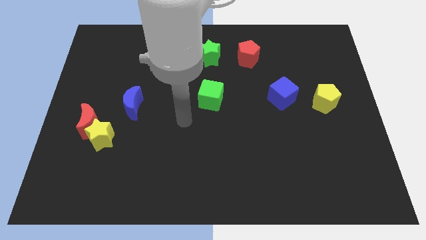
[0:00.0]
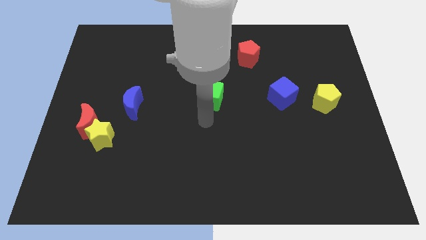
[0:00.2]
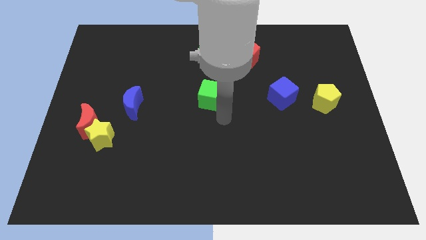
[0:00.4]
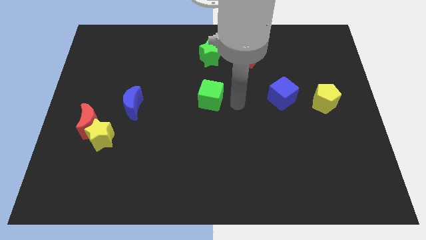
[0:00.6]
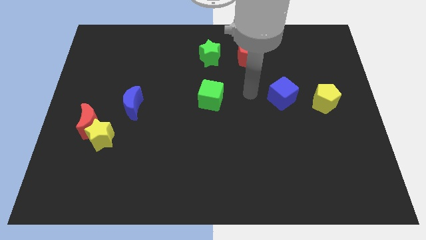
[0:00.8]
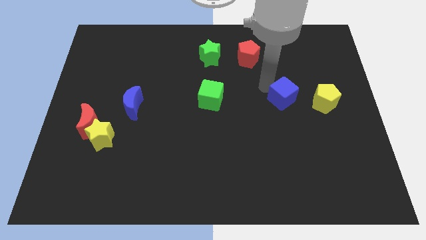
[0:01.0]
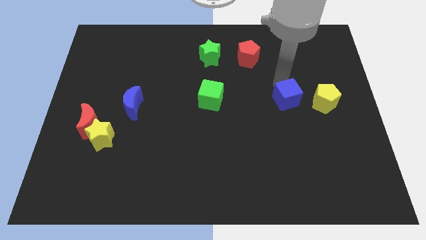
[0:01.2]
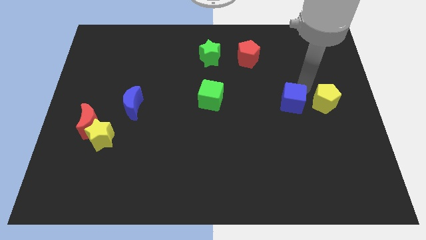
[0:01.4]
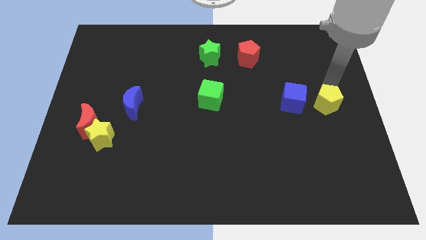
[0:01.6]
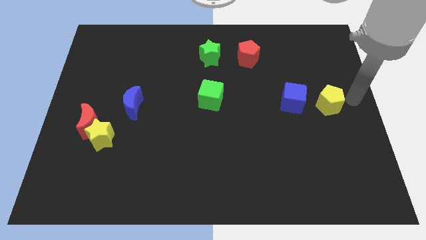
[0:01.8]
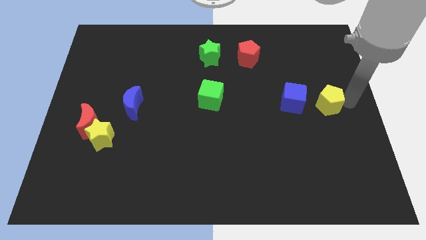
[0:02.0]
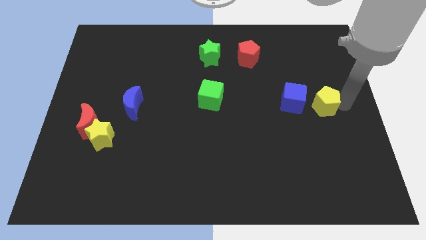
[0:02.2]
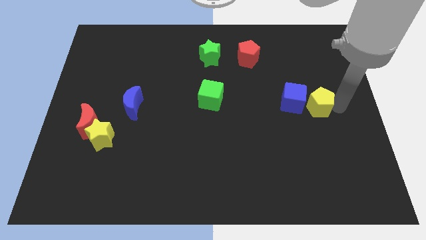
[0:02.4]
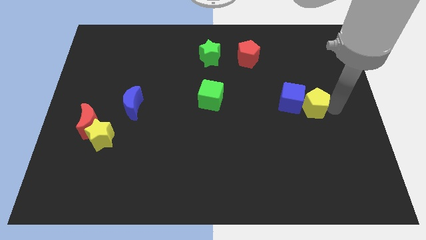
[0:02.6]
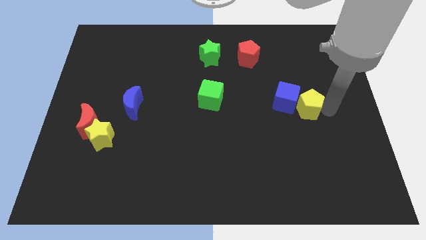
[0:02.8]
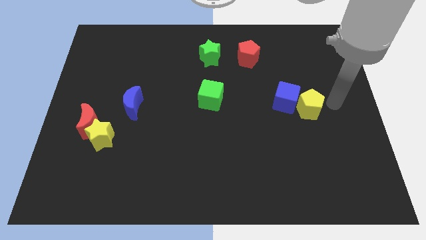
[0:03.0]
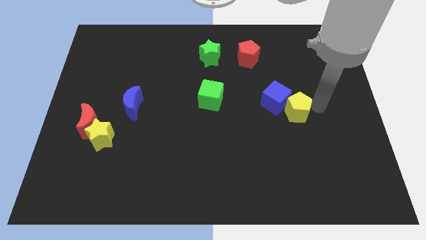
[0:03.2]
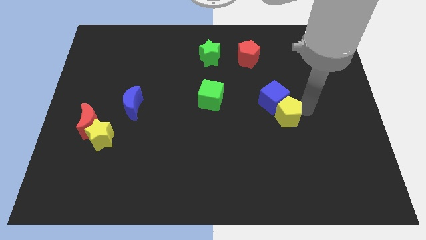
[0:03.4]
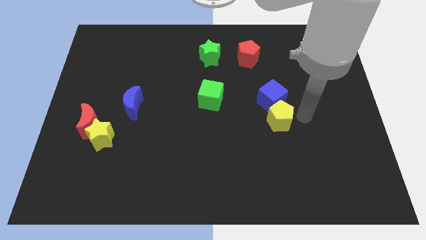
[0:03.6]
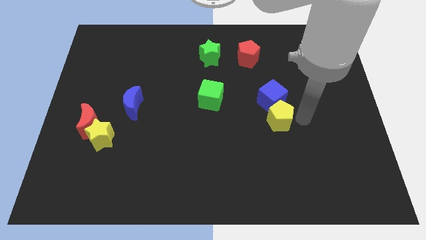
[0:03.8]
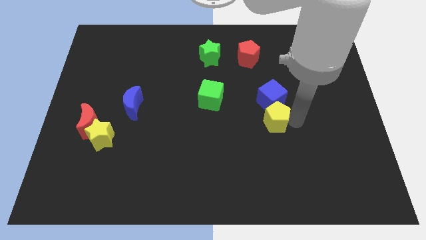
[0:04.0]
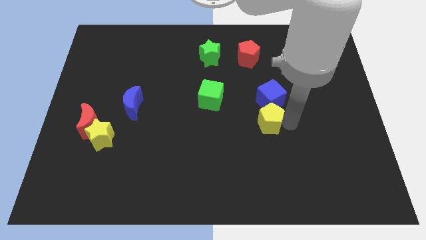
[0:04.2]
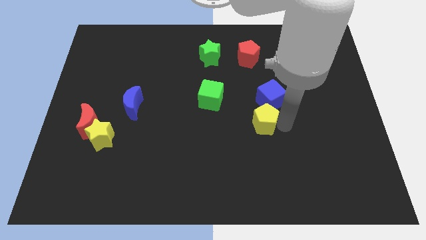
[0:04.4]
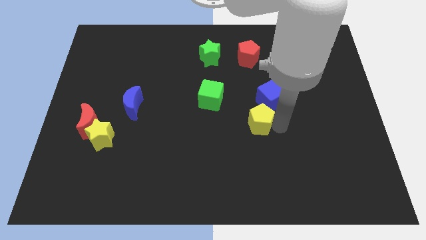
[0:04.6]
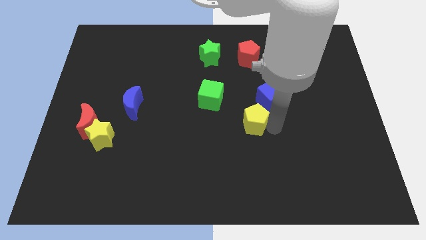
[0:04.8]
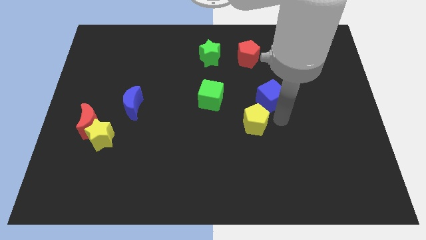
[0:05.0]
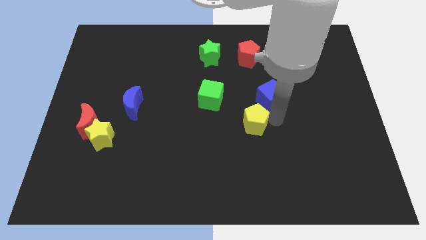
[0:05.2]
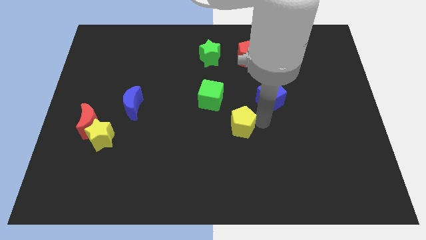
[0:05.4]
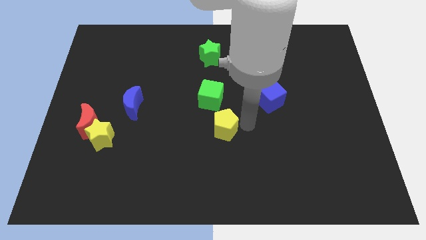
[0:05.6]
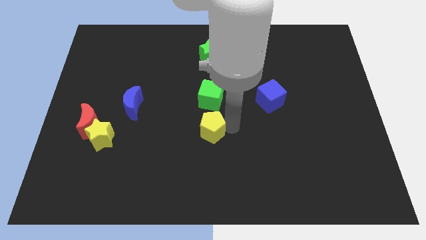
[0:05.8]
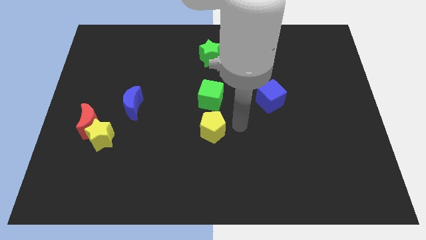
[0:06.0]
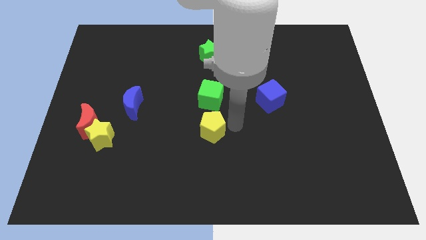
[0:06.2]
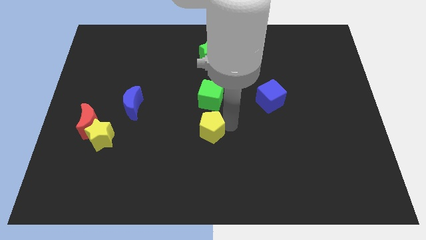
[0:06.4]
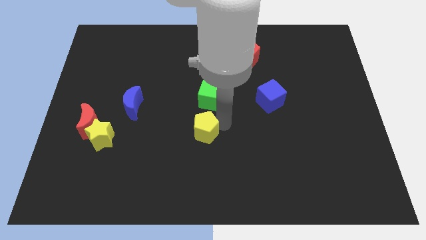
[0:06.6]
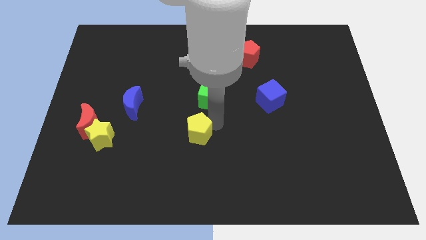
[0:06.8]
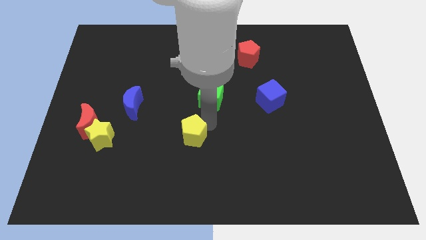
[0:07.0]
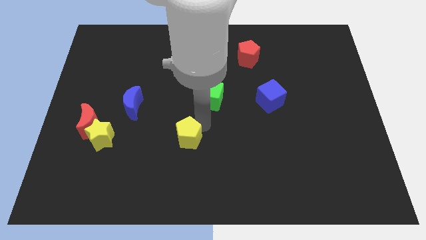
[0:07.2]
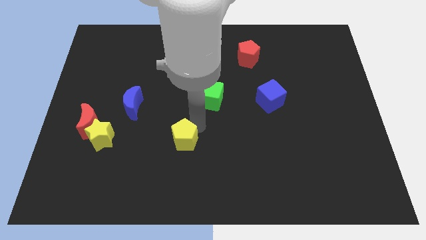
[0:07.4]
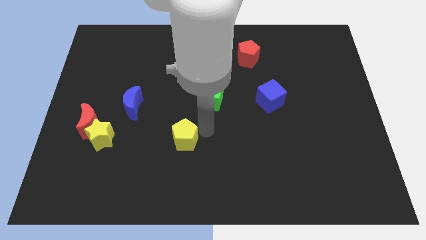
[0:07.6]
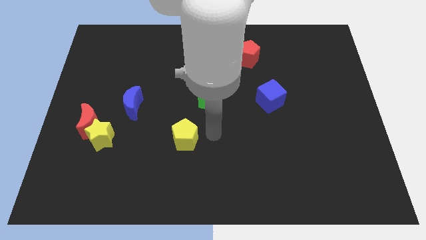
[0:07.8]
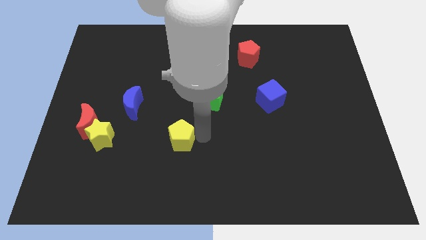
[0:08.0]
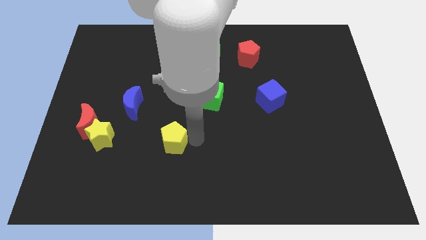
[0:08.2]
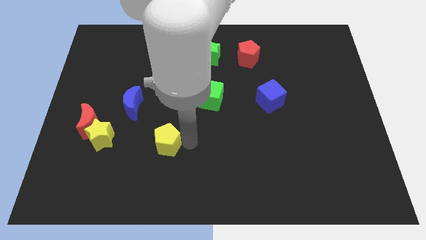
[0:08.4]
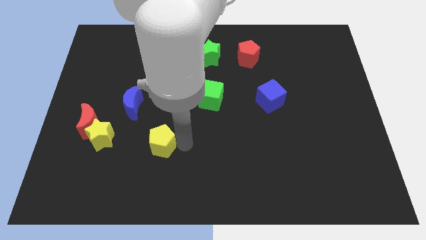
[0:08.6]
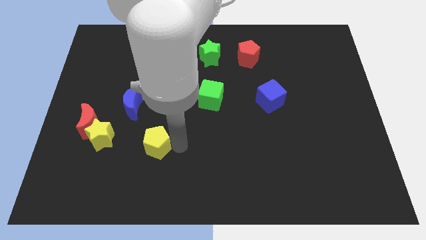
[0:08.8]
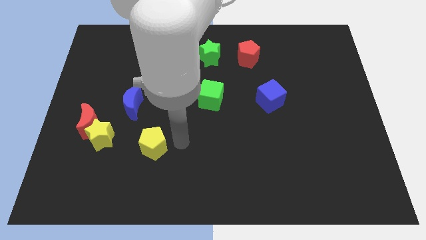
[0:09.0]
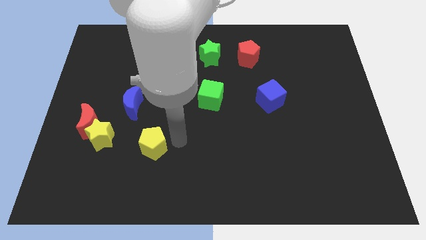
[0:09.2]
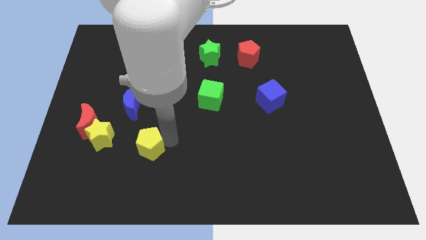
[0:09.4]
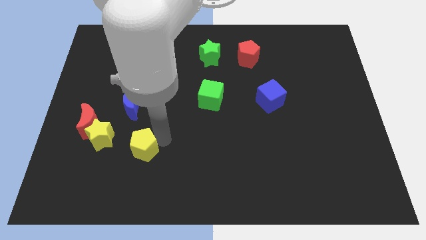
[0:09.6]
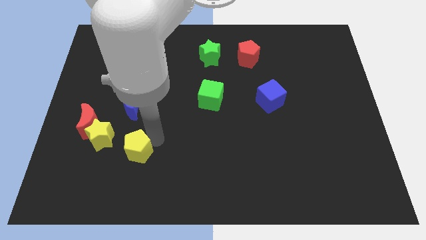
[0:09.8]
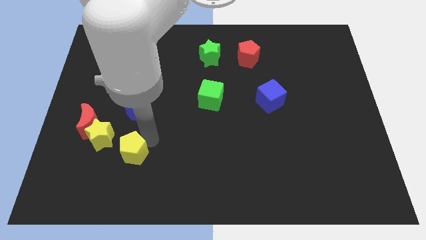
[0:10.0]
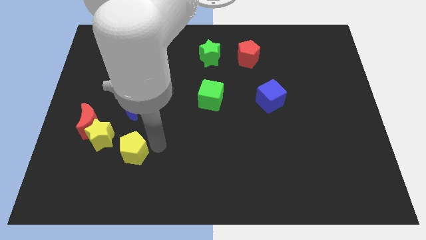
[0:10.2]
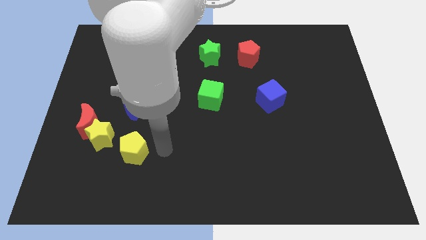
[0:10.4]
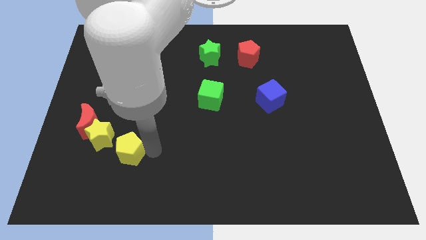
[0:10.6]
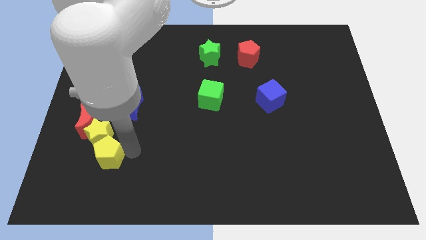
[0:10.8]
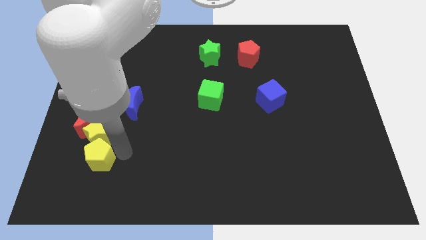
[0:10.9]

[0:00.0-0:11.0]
put the yellow pentagon below the red moon

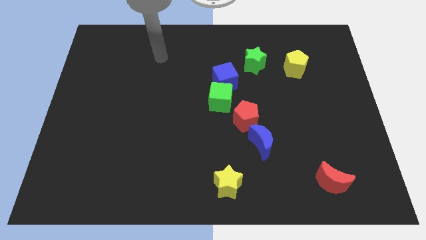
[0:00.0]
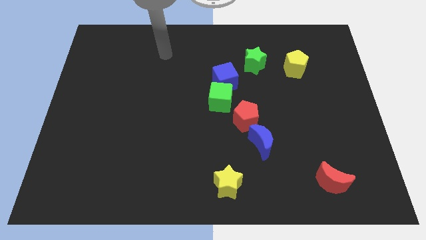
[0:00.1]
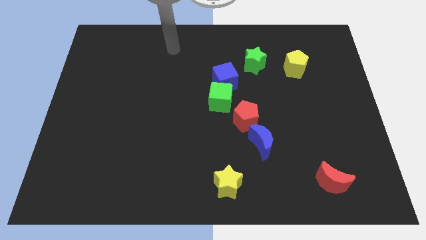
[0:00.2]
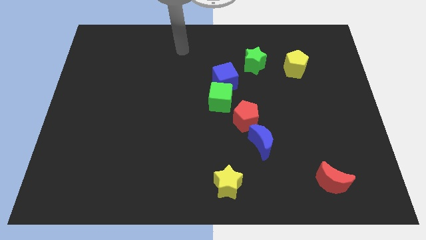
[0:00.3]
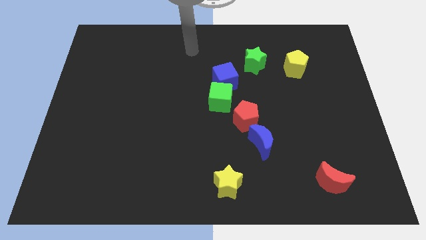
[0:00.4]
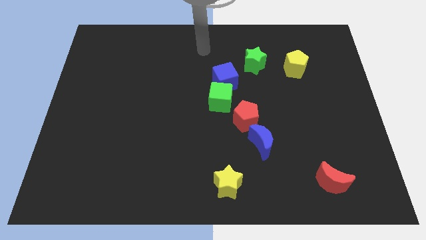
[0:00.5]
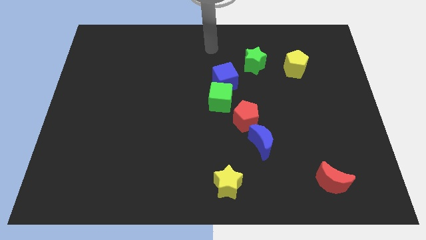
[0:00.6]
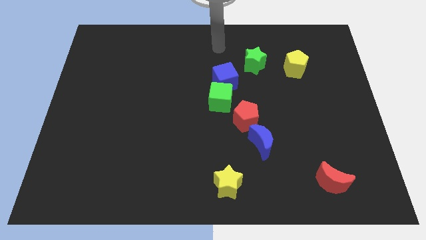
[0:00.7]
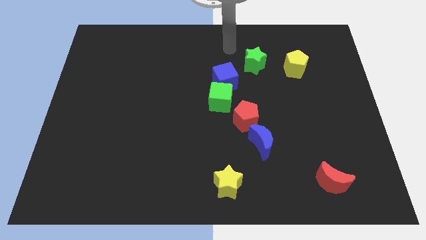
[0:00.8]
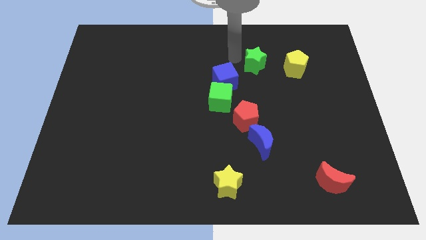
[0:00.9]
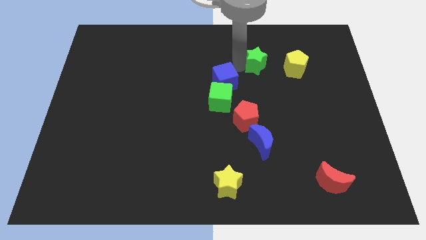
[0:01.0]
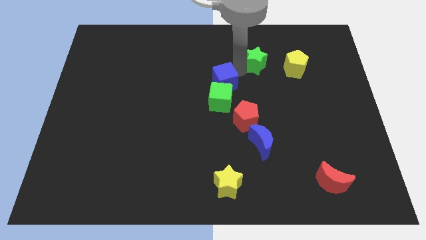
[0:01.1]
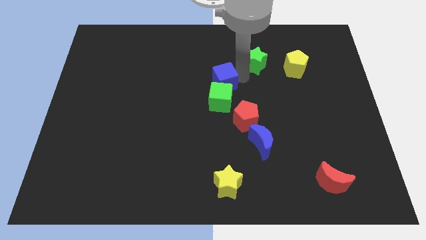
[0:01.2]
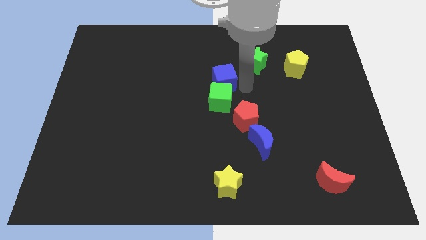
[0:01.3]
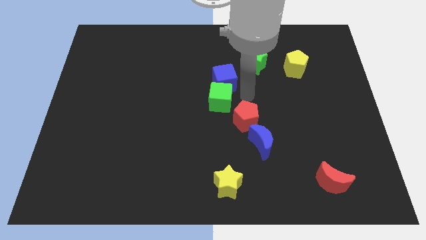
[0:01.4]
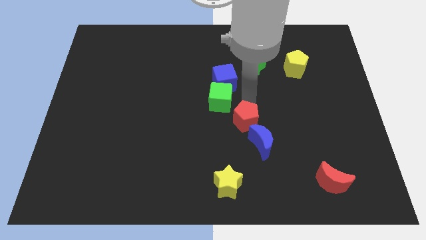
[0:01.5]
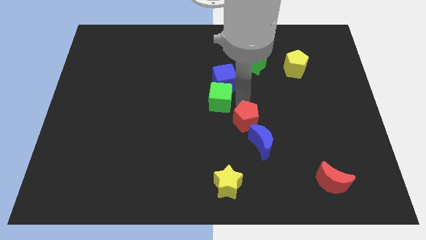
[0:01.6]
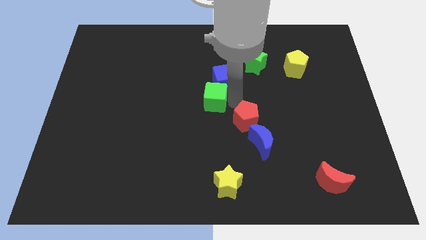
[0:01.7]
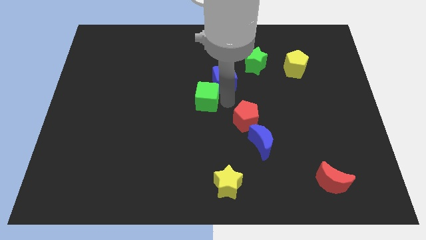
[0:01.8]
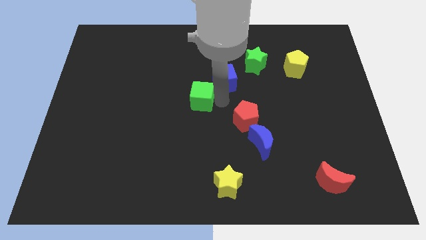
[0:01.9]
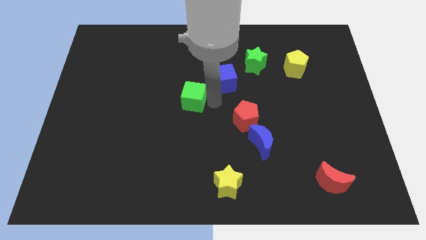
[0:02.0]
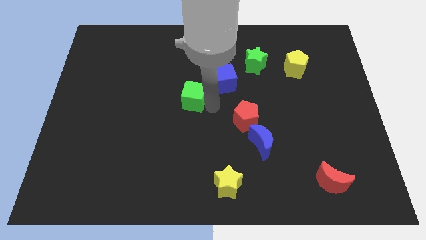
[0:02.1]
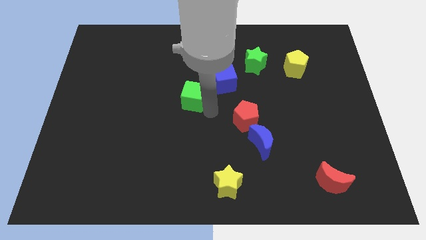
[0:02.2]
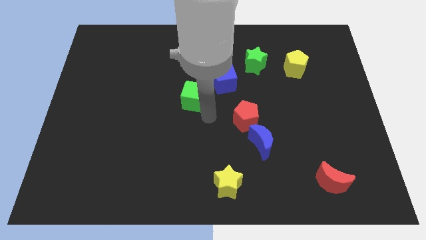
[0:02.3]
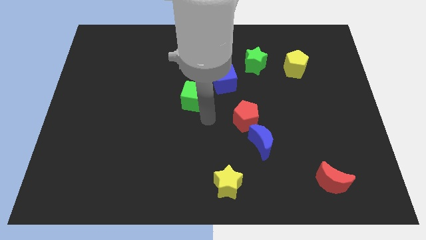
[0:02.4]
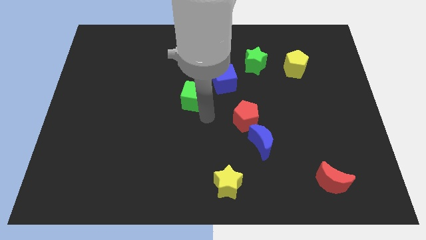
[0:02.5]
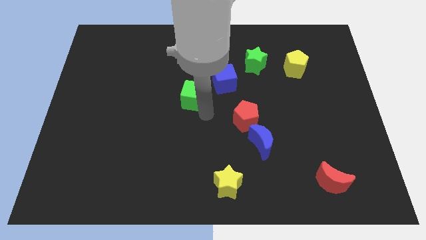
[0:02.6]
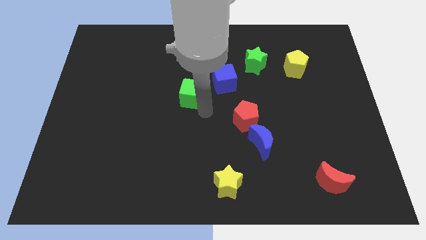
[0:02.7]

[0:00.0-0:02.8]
move the green cube left of the blue cube
